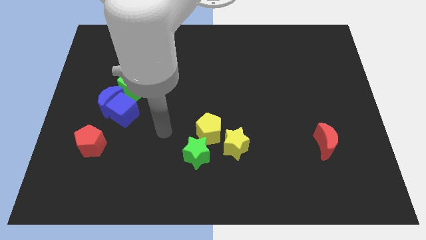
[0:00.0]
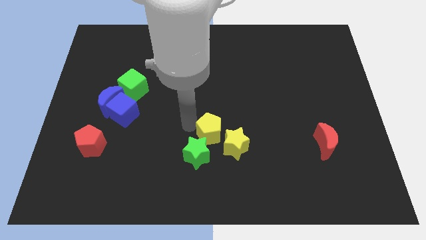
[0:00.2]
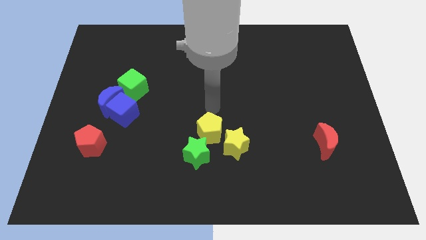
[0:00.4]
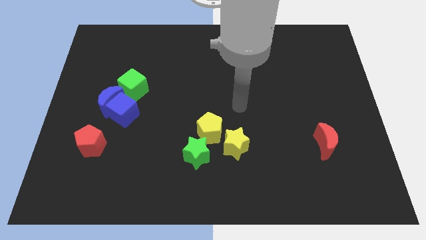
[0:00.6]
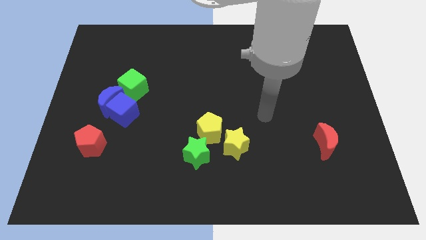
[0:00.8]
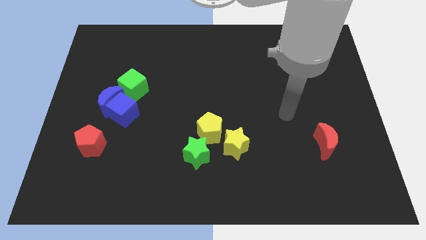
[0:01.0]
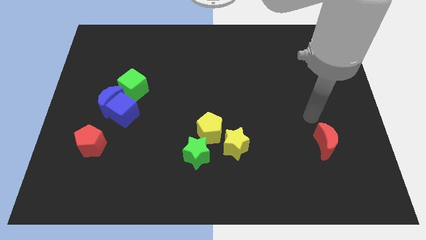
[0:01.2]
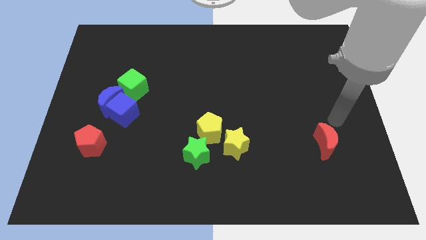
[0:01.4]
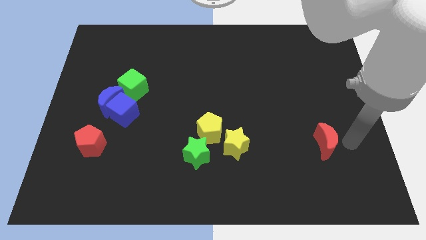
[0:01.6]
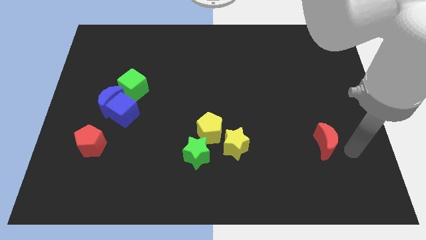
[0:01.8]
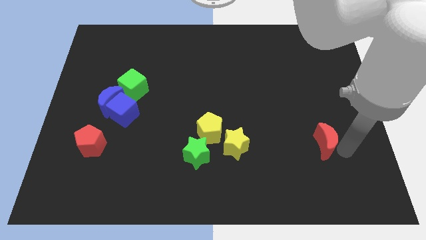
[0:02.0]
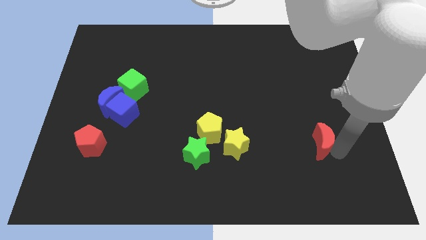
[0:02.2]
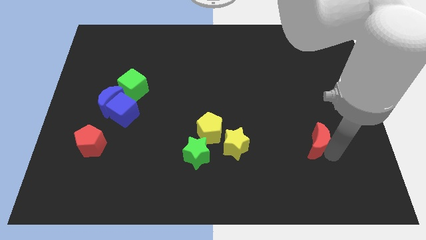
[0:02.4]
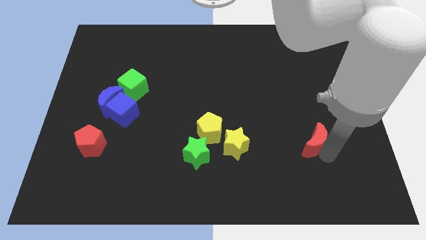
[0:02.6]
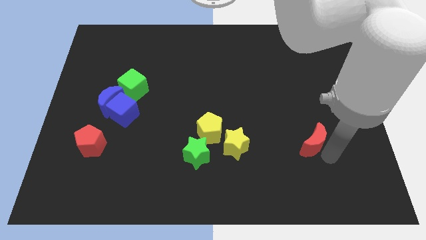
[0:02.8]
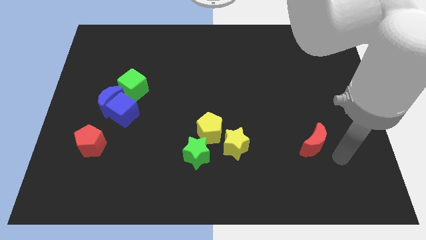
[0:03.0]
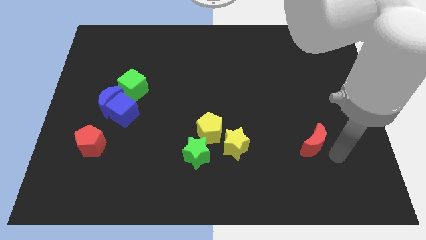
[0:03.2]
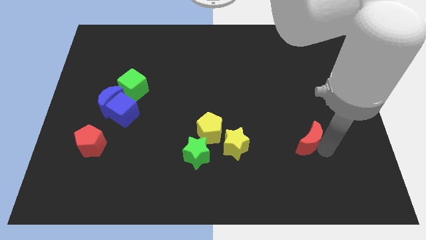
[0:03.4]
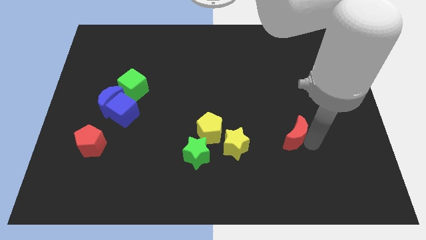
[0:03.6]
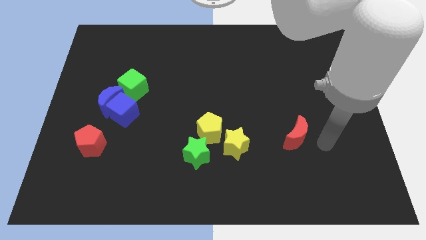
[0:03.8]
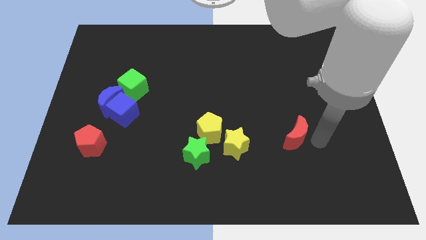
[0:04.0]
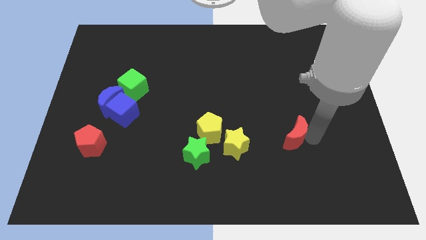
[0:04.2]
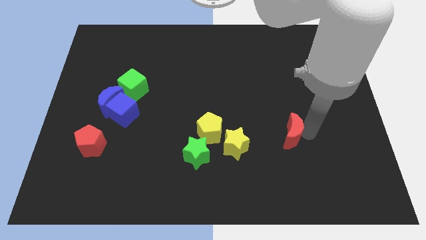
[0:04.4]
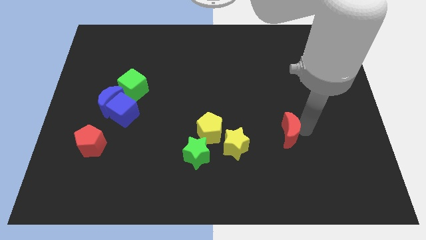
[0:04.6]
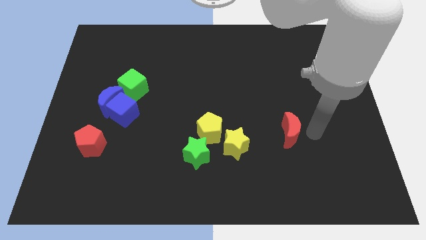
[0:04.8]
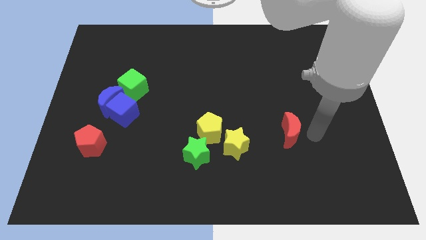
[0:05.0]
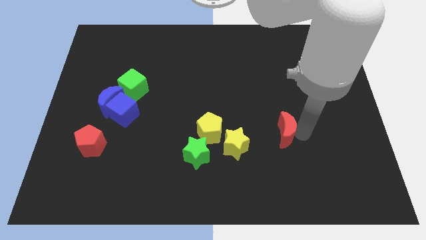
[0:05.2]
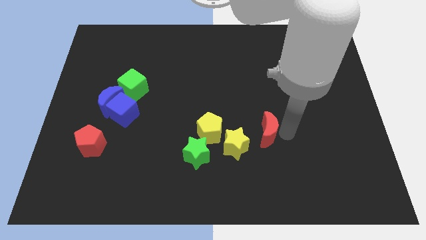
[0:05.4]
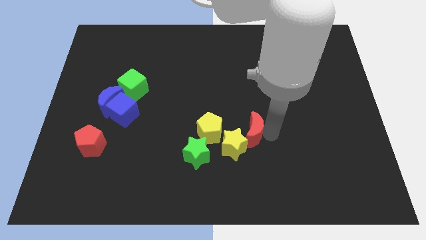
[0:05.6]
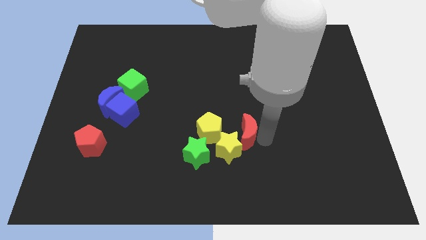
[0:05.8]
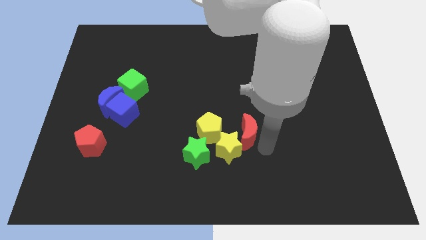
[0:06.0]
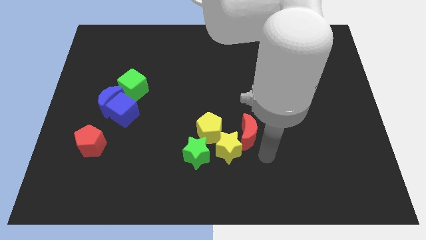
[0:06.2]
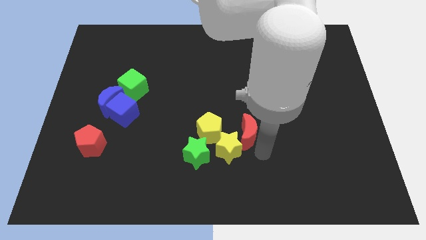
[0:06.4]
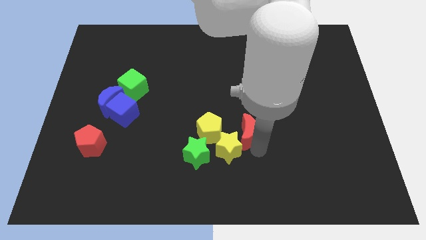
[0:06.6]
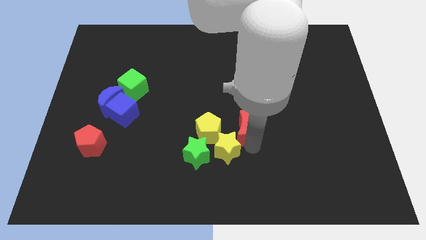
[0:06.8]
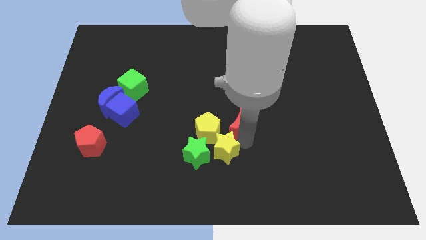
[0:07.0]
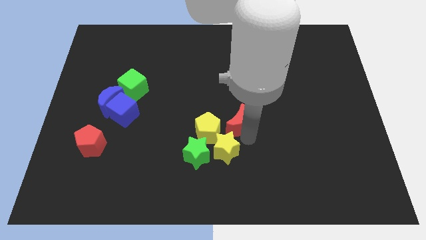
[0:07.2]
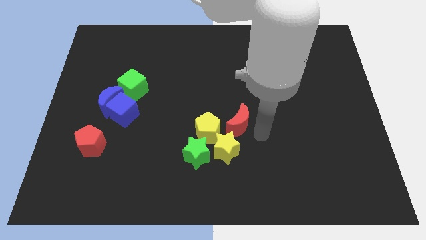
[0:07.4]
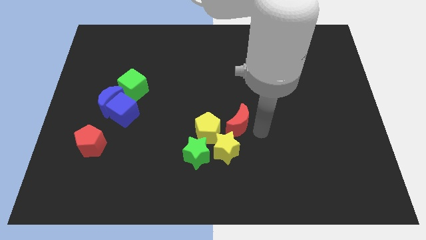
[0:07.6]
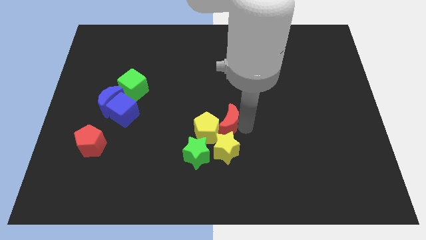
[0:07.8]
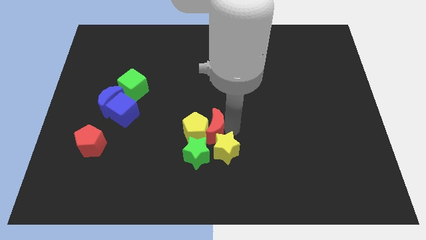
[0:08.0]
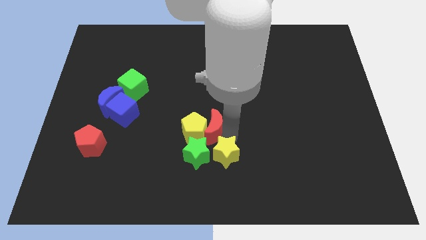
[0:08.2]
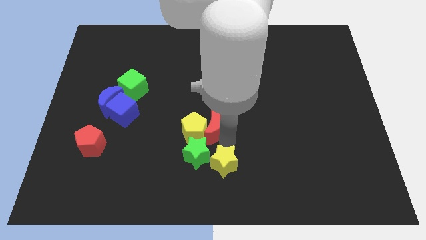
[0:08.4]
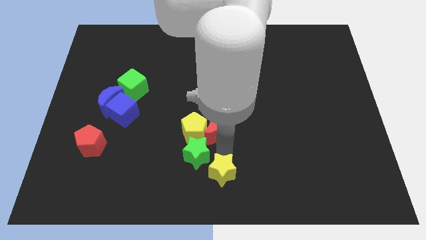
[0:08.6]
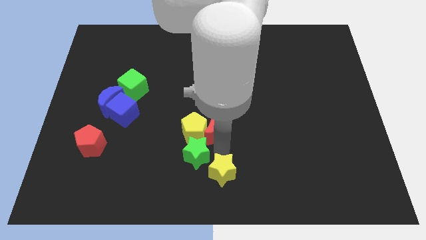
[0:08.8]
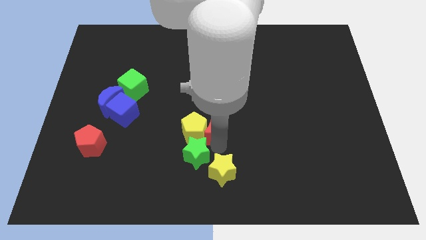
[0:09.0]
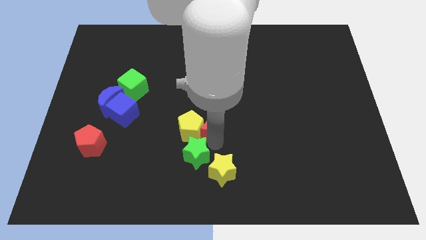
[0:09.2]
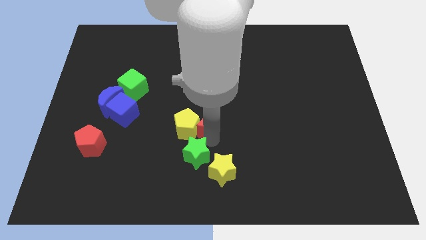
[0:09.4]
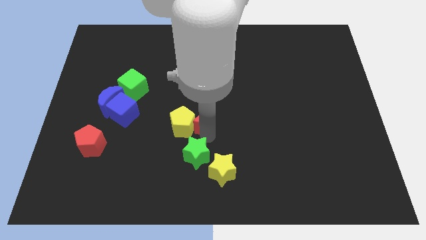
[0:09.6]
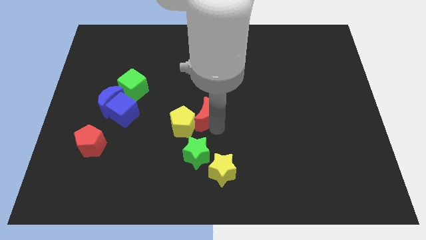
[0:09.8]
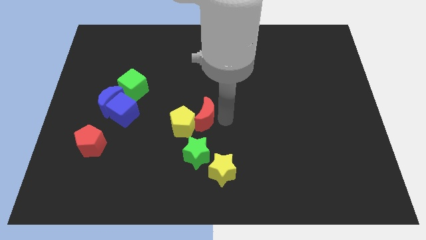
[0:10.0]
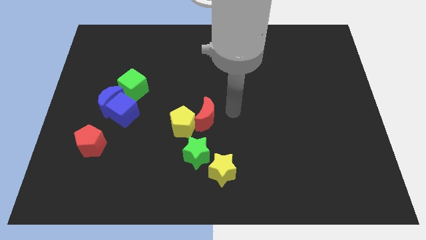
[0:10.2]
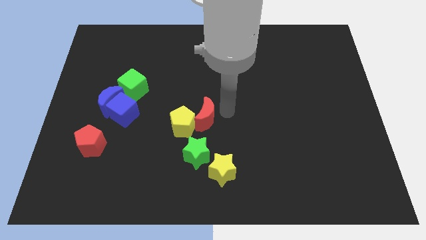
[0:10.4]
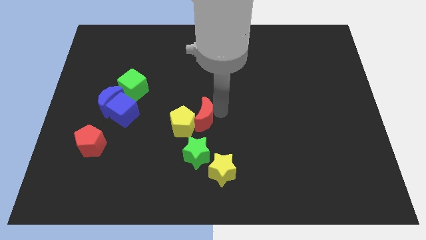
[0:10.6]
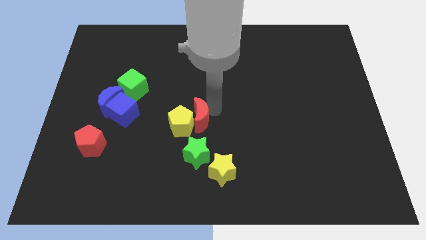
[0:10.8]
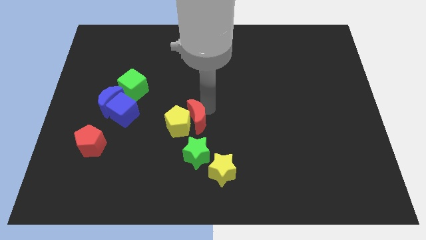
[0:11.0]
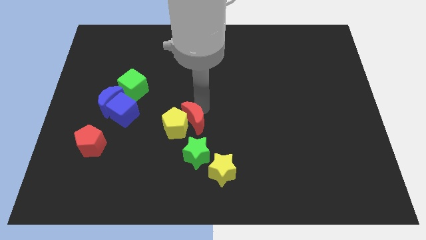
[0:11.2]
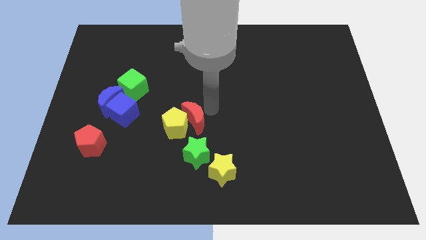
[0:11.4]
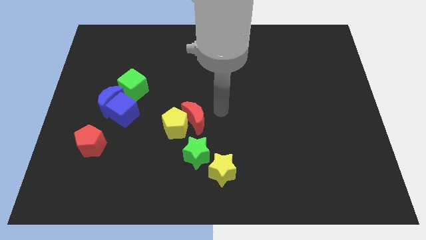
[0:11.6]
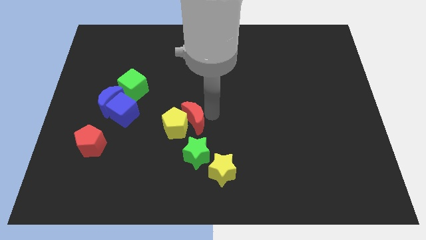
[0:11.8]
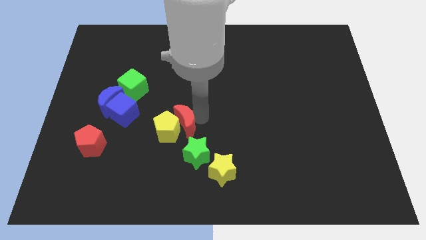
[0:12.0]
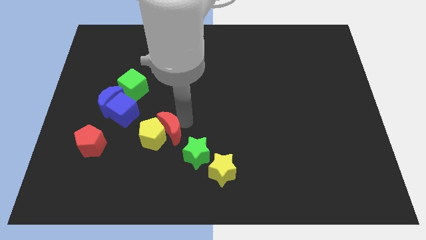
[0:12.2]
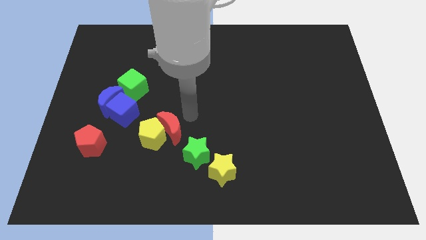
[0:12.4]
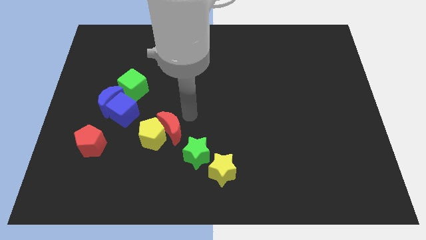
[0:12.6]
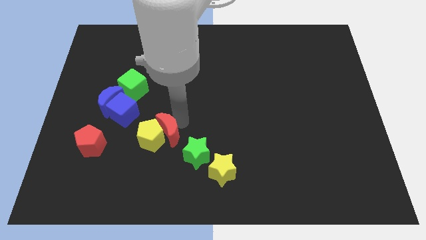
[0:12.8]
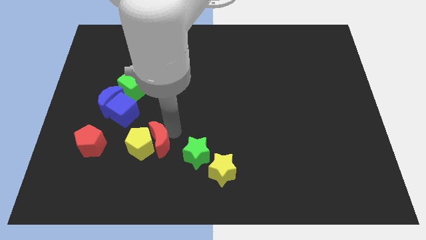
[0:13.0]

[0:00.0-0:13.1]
push the red moon right of the red pentagon

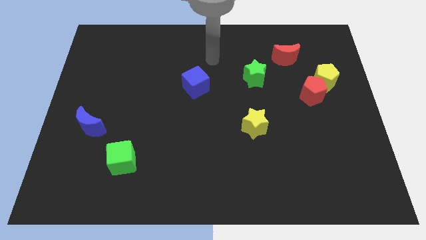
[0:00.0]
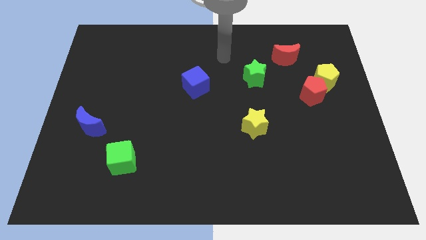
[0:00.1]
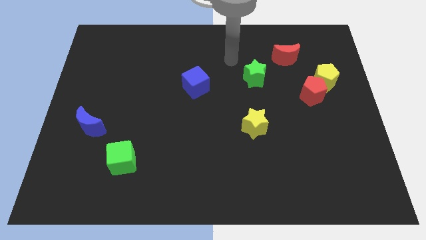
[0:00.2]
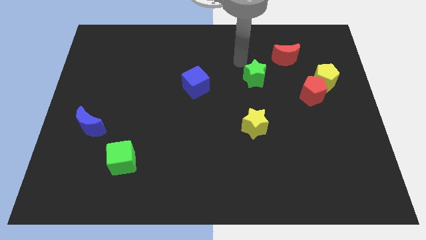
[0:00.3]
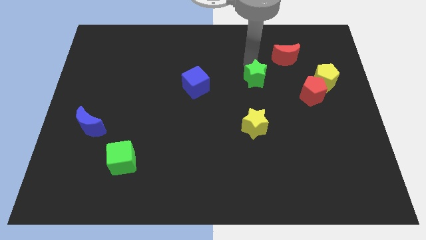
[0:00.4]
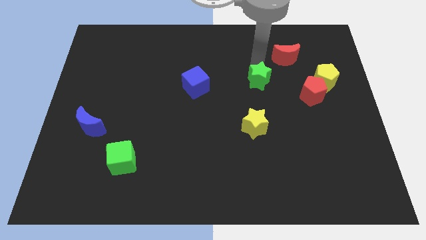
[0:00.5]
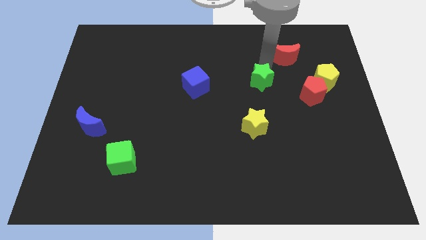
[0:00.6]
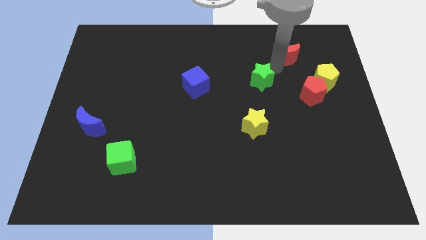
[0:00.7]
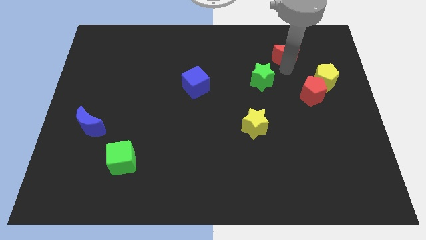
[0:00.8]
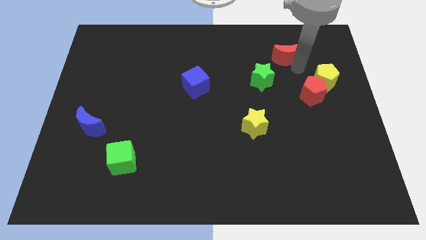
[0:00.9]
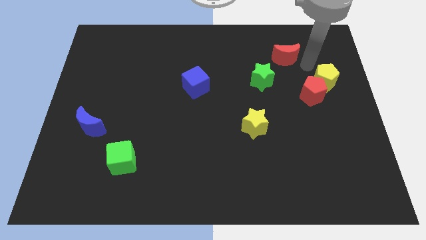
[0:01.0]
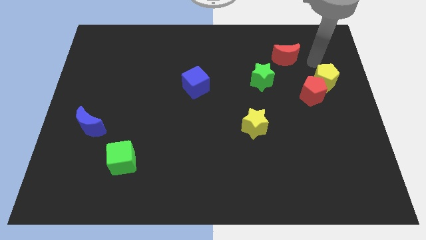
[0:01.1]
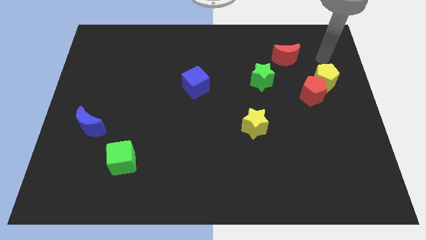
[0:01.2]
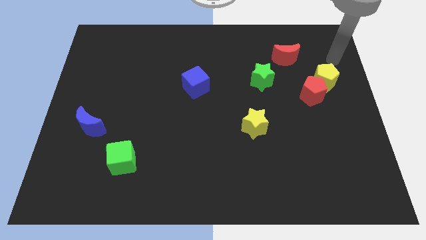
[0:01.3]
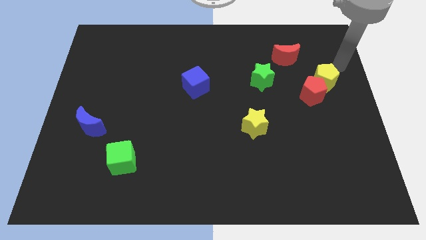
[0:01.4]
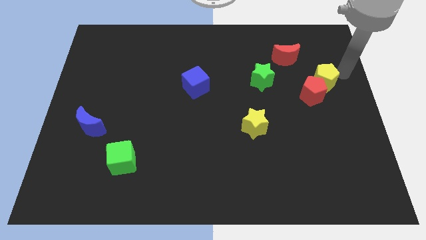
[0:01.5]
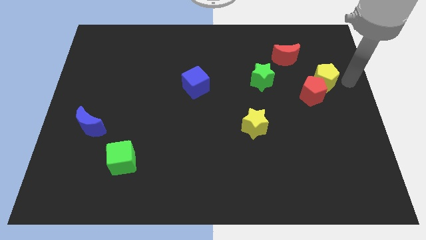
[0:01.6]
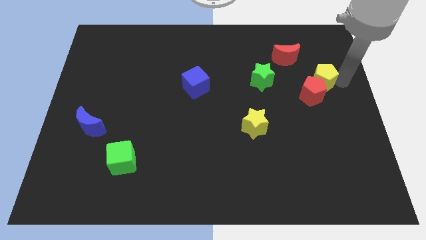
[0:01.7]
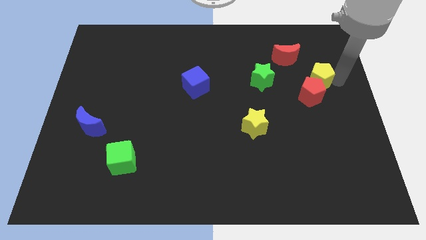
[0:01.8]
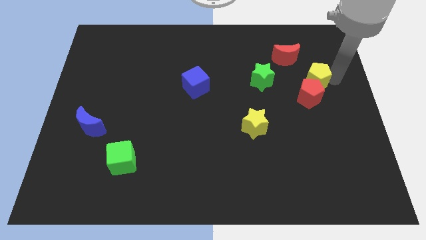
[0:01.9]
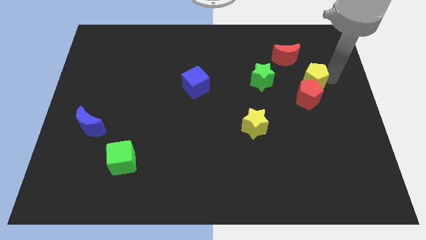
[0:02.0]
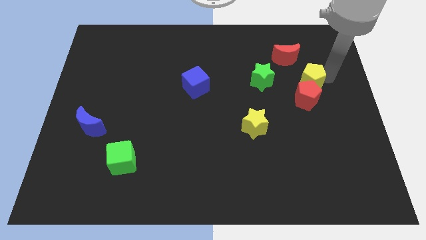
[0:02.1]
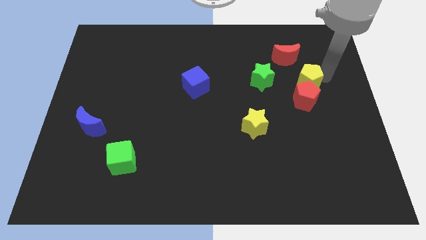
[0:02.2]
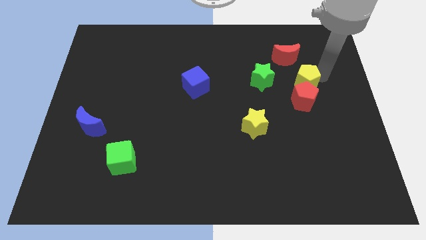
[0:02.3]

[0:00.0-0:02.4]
put the yellow pentagon to the top left side of the red pentagon
